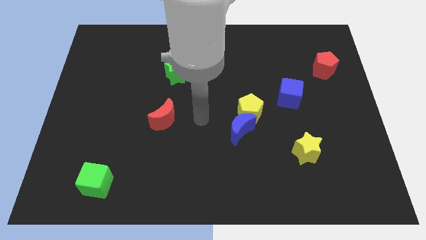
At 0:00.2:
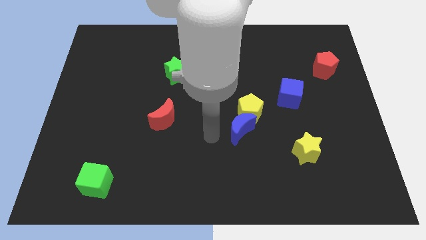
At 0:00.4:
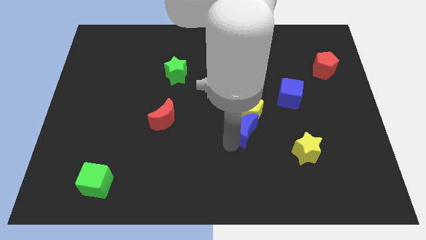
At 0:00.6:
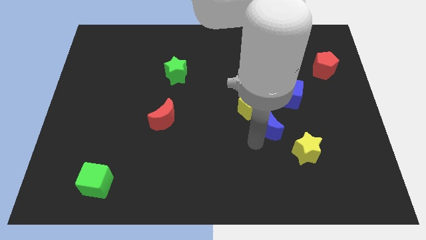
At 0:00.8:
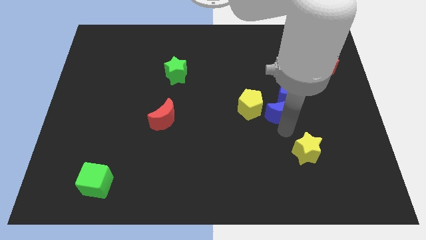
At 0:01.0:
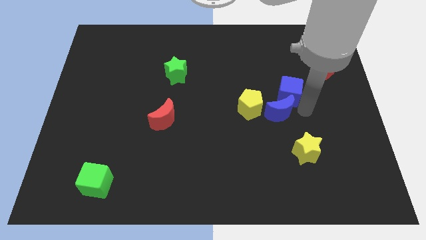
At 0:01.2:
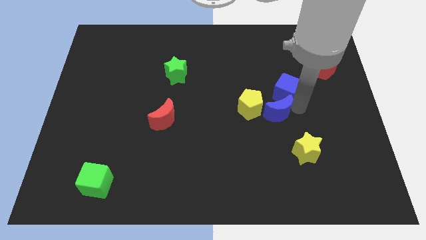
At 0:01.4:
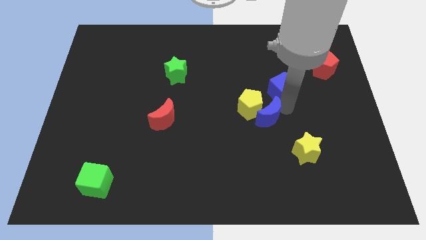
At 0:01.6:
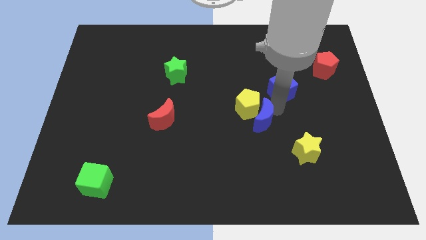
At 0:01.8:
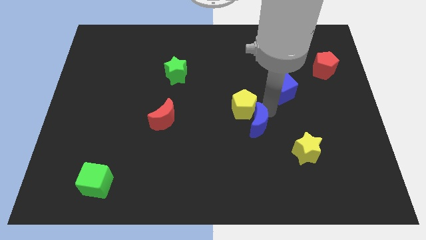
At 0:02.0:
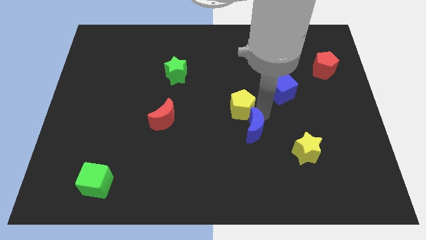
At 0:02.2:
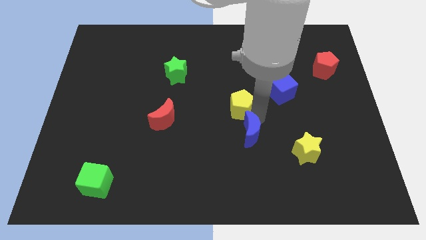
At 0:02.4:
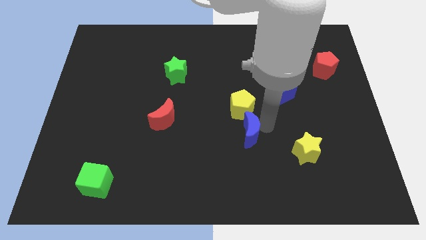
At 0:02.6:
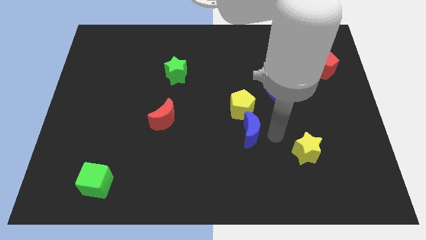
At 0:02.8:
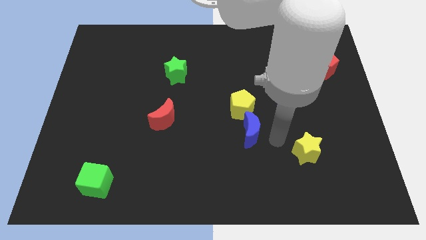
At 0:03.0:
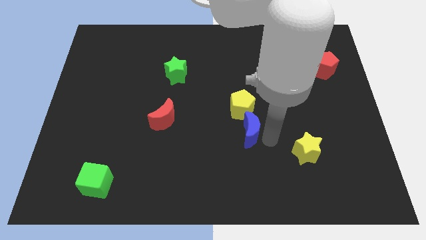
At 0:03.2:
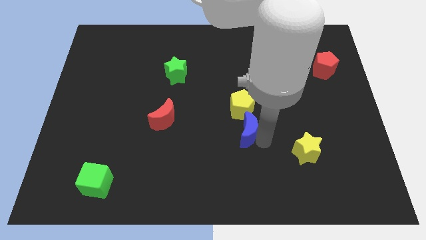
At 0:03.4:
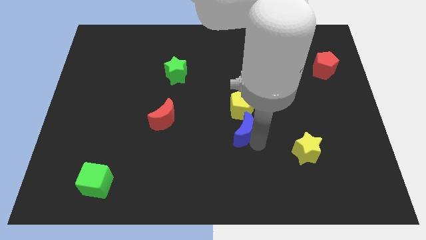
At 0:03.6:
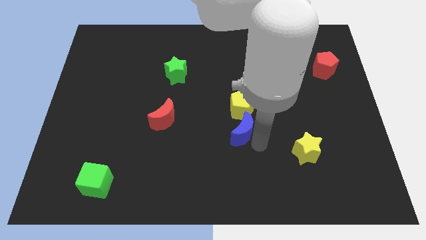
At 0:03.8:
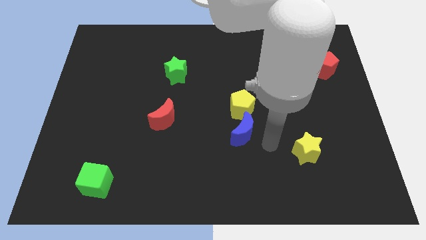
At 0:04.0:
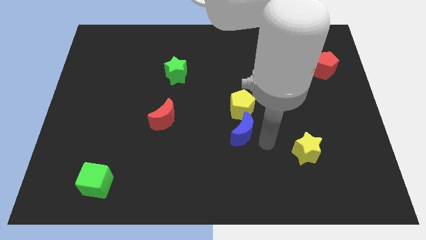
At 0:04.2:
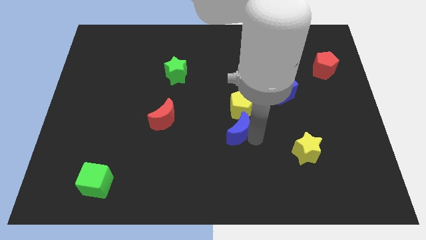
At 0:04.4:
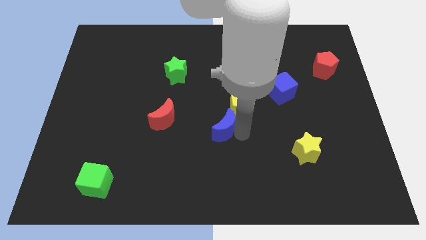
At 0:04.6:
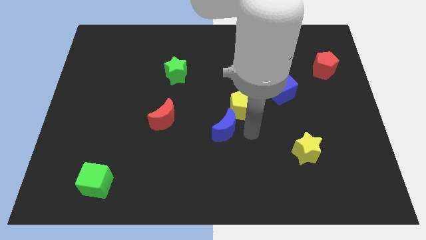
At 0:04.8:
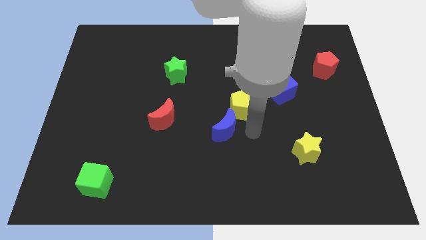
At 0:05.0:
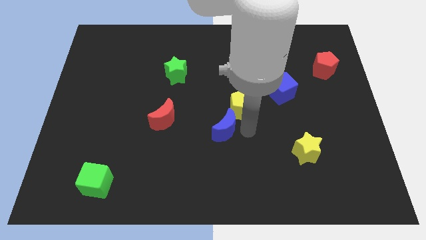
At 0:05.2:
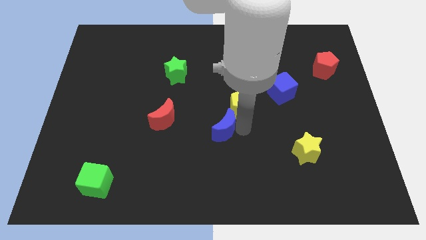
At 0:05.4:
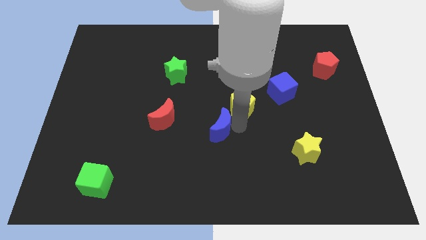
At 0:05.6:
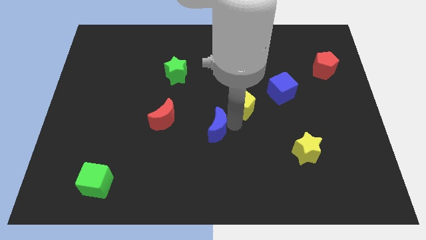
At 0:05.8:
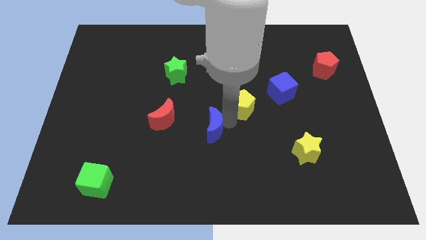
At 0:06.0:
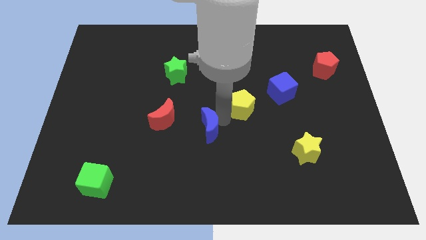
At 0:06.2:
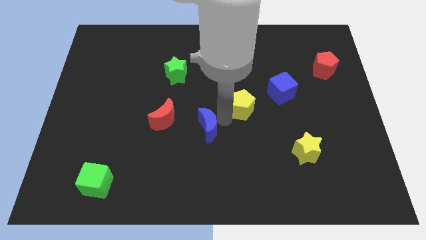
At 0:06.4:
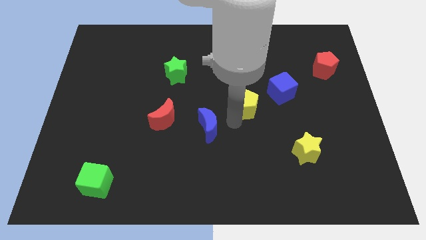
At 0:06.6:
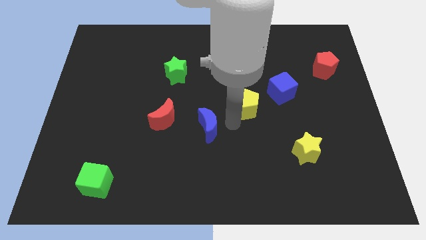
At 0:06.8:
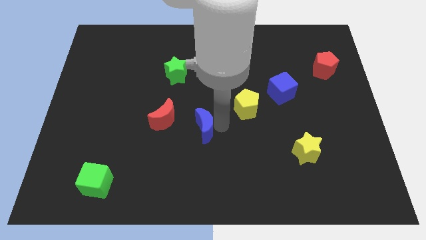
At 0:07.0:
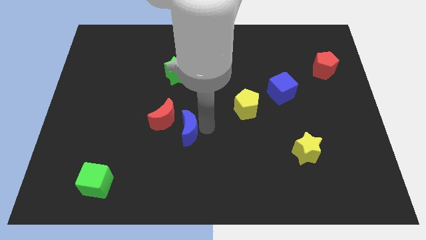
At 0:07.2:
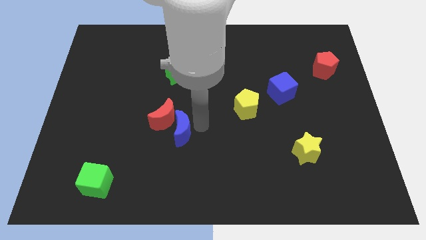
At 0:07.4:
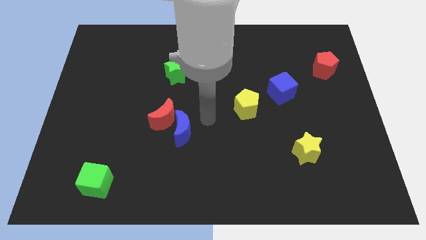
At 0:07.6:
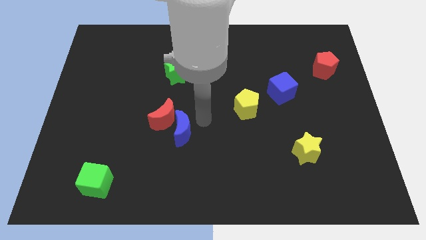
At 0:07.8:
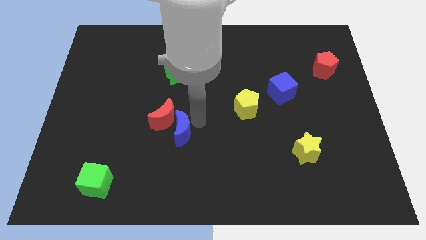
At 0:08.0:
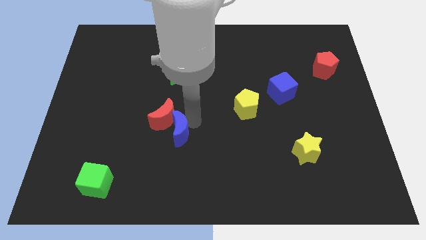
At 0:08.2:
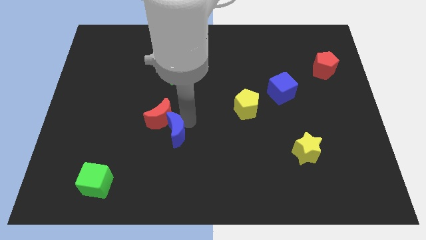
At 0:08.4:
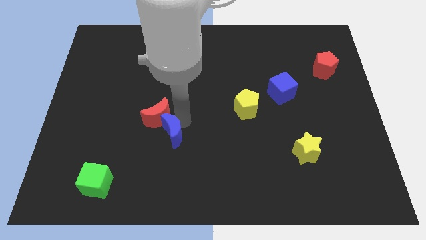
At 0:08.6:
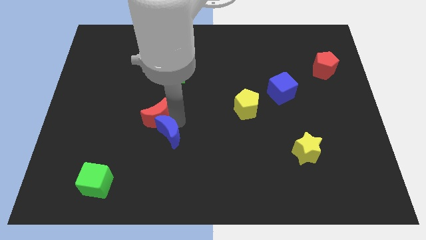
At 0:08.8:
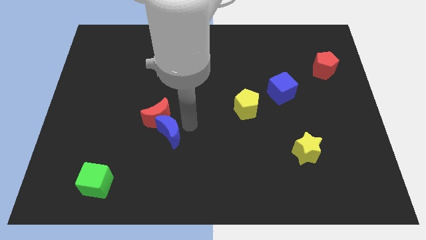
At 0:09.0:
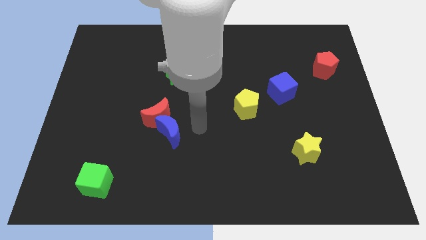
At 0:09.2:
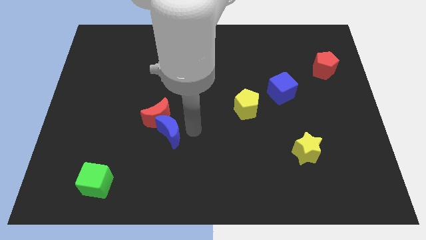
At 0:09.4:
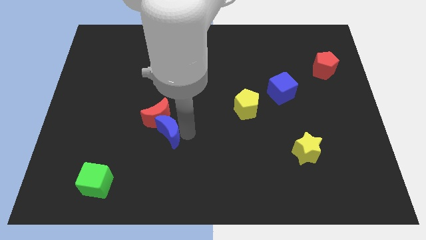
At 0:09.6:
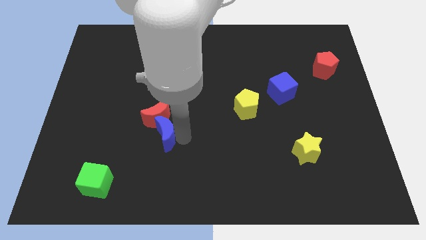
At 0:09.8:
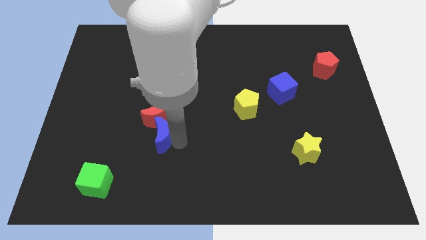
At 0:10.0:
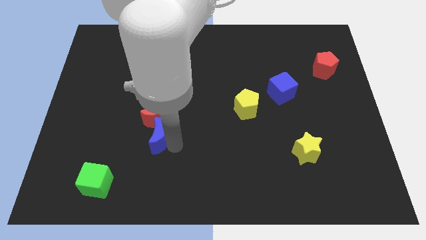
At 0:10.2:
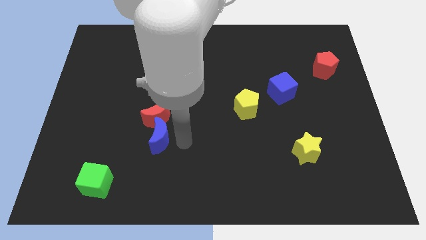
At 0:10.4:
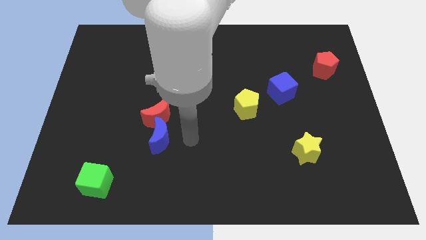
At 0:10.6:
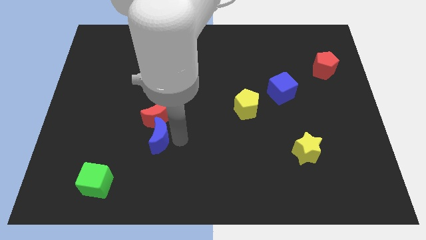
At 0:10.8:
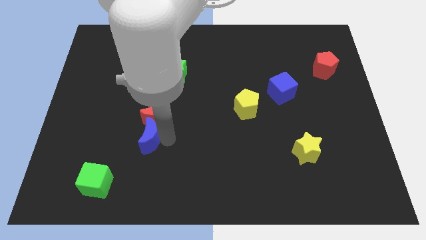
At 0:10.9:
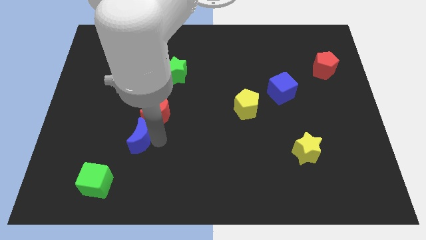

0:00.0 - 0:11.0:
move the blue moon left

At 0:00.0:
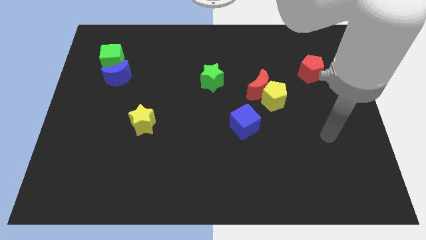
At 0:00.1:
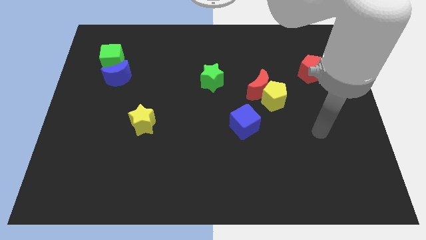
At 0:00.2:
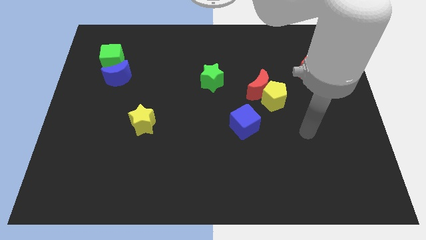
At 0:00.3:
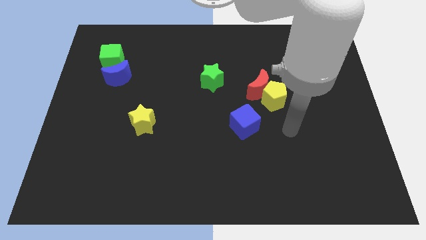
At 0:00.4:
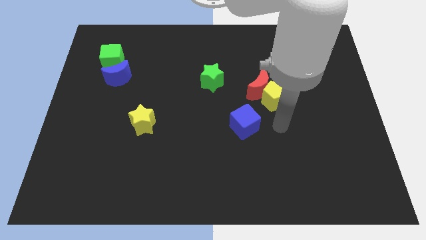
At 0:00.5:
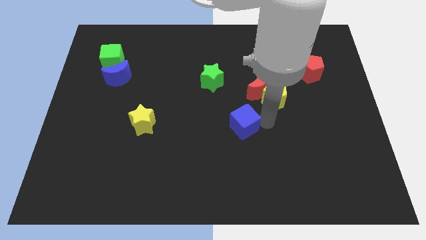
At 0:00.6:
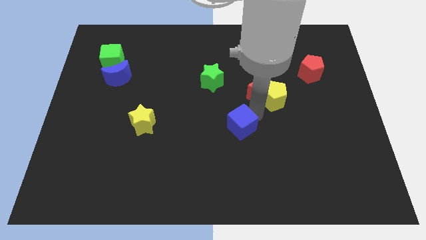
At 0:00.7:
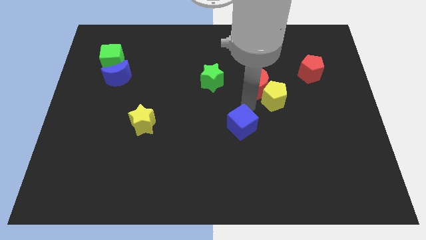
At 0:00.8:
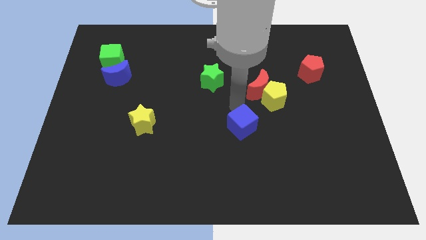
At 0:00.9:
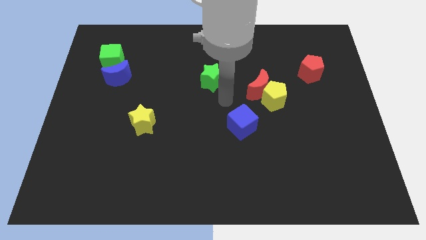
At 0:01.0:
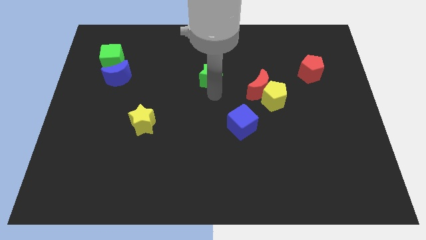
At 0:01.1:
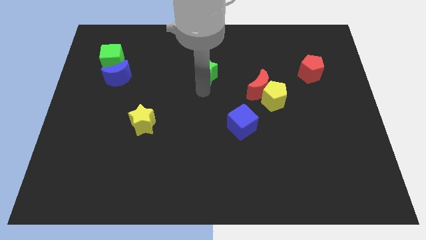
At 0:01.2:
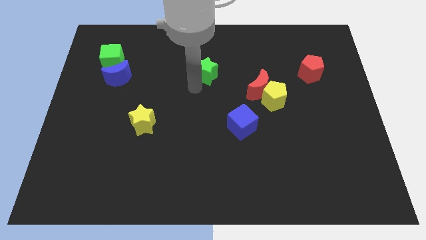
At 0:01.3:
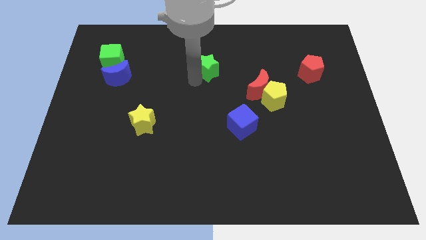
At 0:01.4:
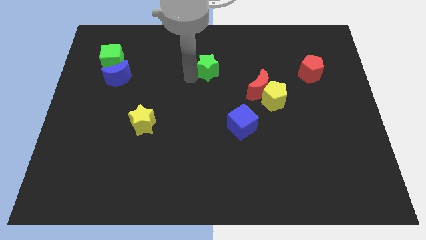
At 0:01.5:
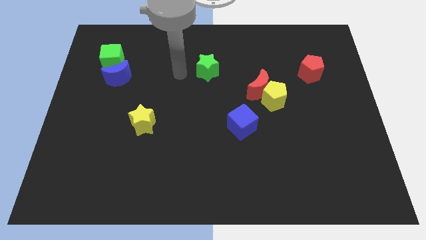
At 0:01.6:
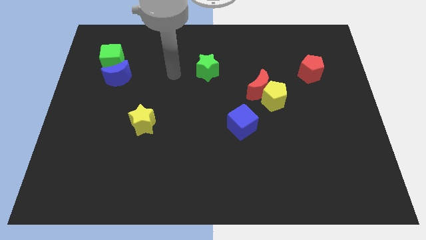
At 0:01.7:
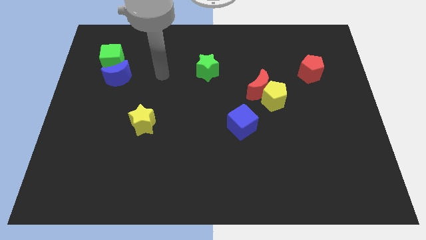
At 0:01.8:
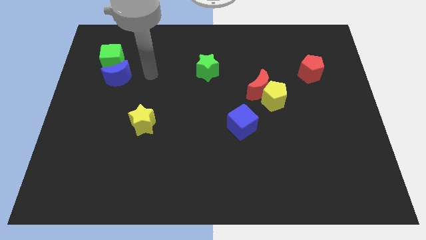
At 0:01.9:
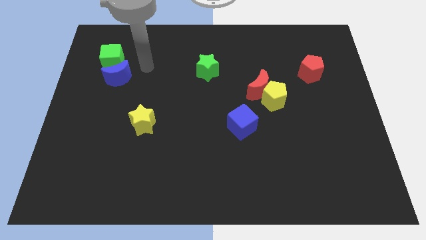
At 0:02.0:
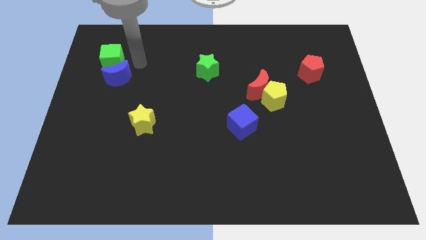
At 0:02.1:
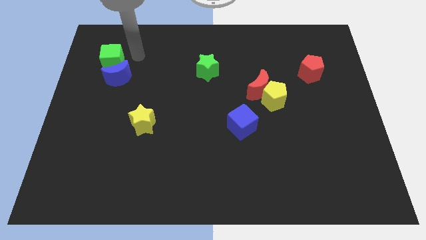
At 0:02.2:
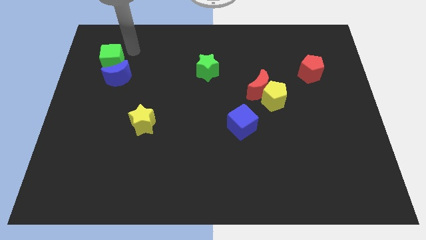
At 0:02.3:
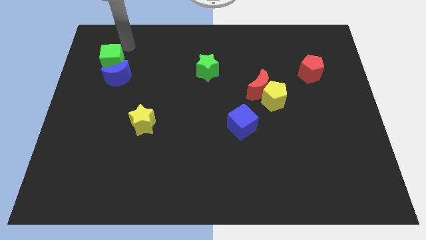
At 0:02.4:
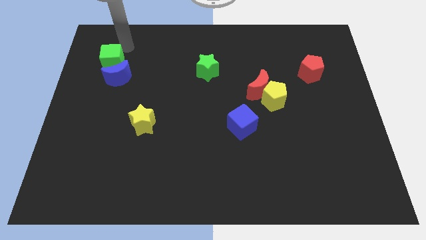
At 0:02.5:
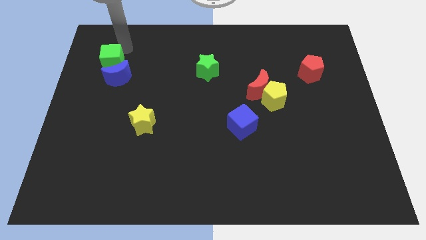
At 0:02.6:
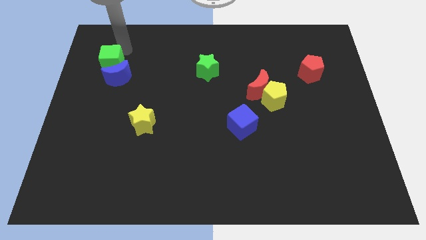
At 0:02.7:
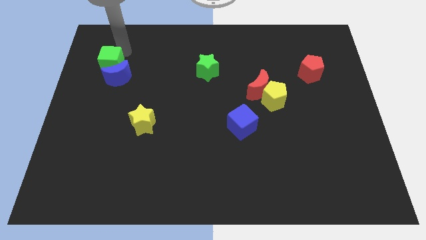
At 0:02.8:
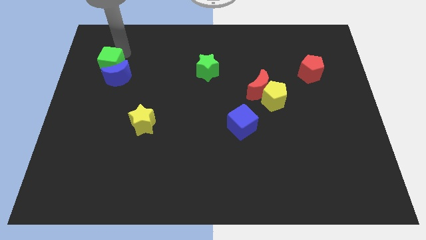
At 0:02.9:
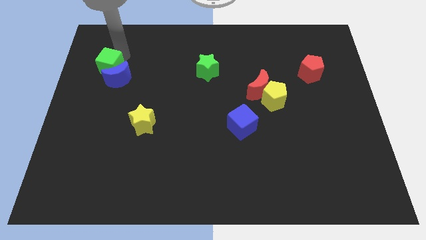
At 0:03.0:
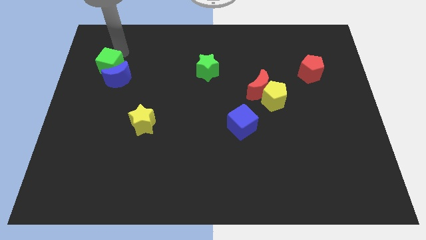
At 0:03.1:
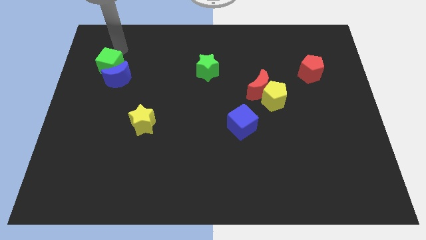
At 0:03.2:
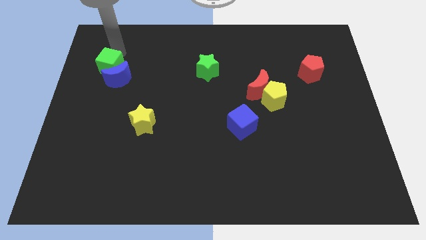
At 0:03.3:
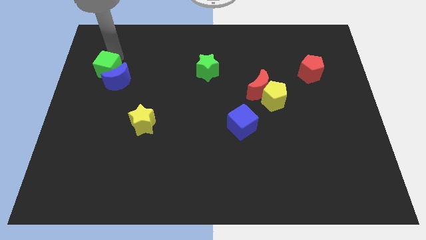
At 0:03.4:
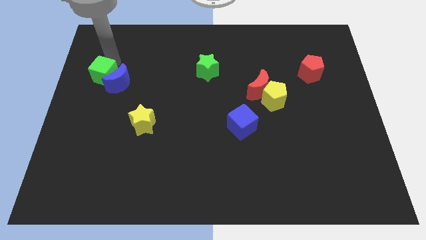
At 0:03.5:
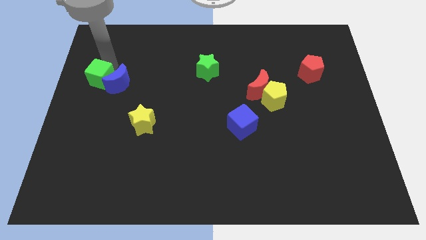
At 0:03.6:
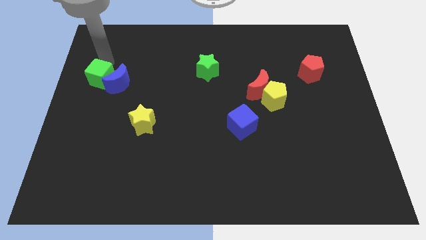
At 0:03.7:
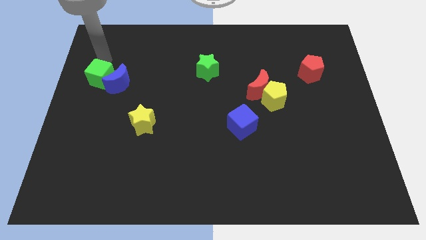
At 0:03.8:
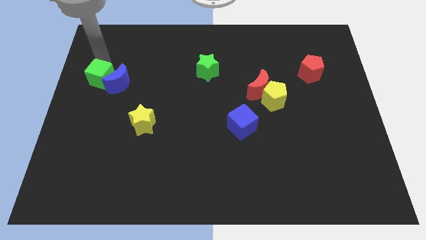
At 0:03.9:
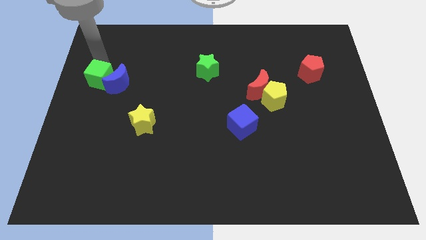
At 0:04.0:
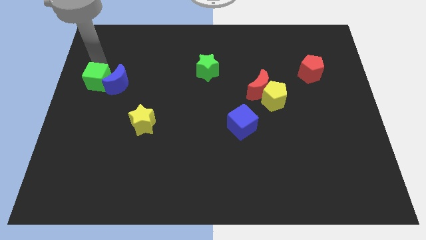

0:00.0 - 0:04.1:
slightly push the green cube down
